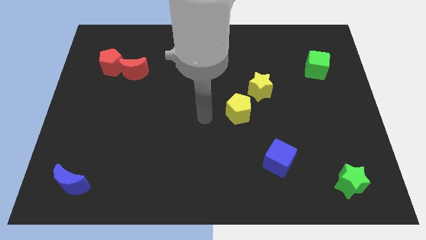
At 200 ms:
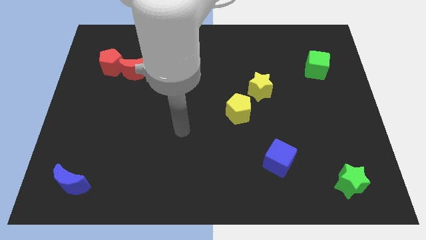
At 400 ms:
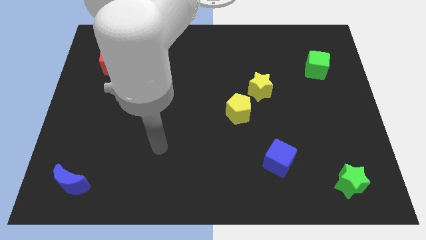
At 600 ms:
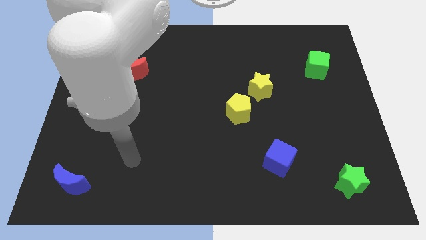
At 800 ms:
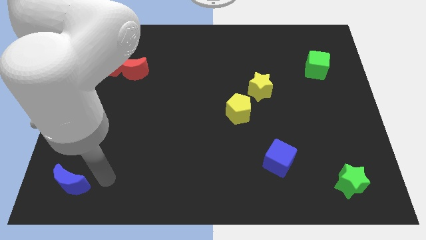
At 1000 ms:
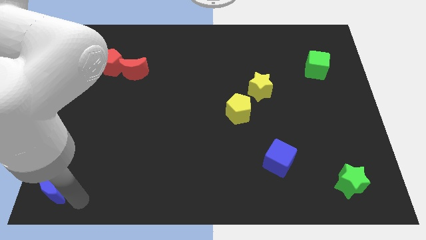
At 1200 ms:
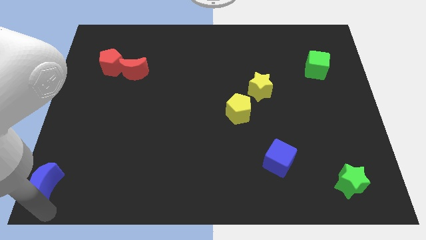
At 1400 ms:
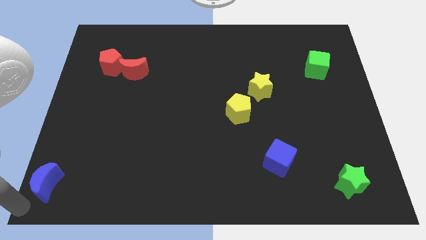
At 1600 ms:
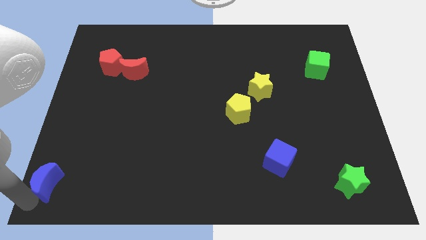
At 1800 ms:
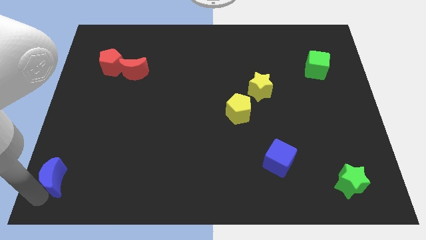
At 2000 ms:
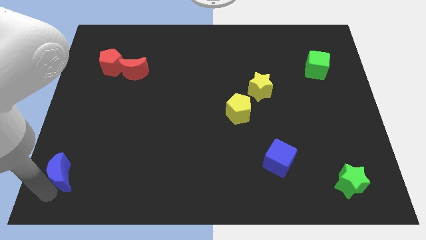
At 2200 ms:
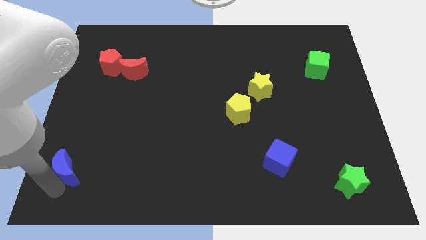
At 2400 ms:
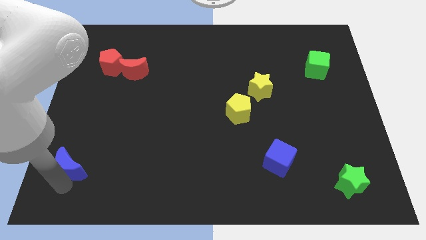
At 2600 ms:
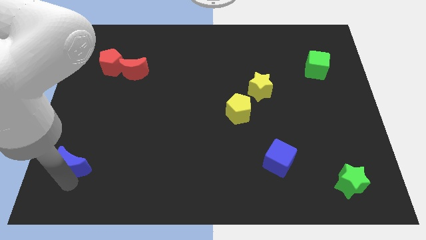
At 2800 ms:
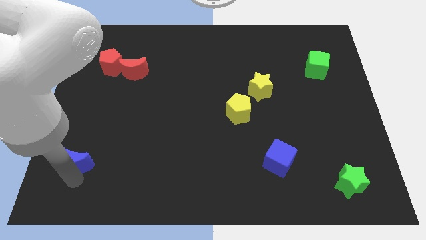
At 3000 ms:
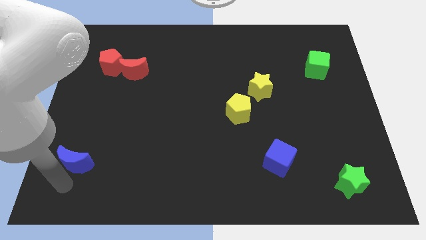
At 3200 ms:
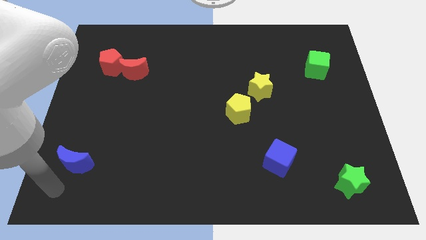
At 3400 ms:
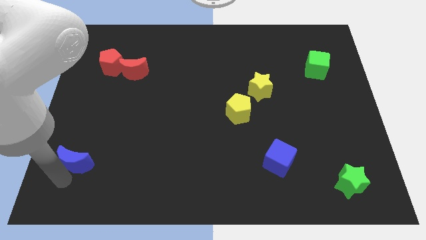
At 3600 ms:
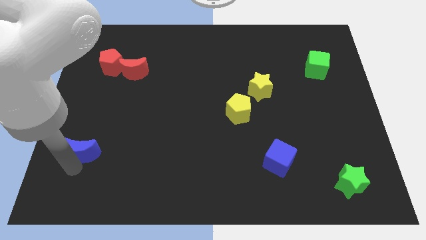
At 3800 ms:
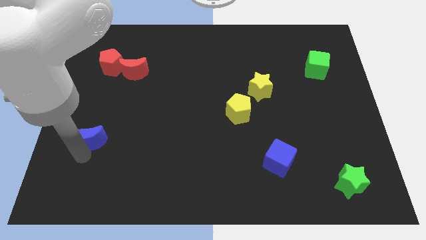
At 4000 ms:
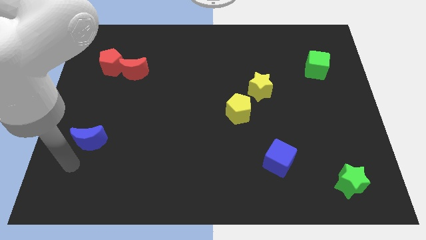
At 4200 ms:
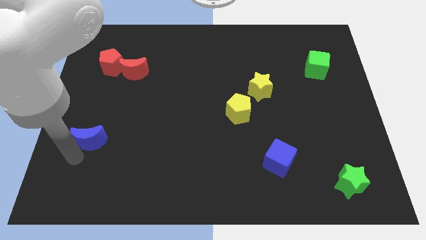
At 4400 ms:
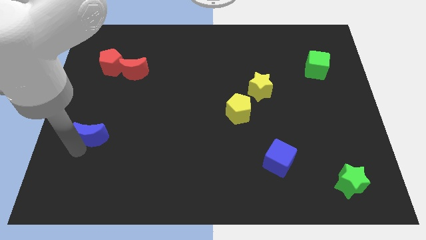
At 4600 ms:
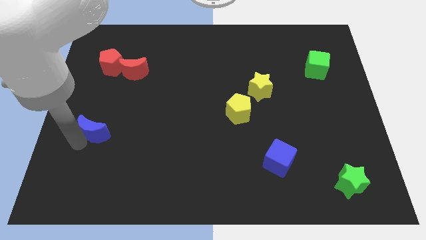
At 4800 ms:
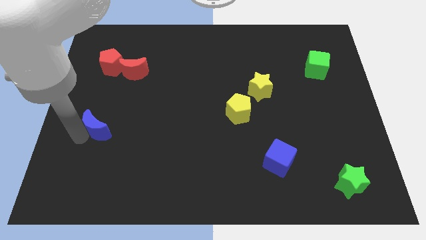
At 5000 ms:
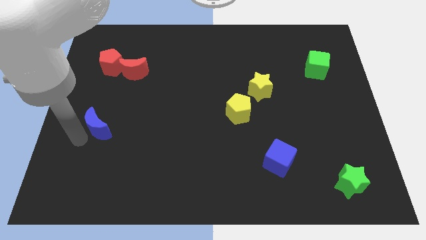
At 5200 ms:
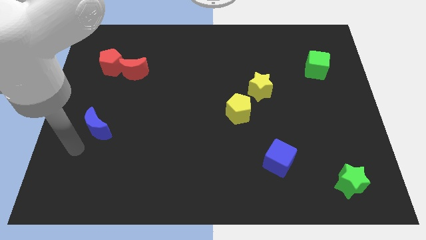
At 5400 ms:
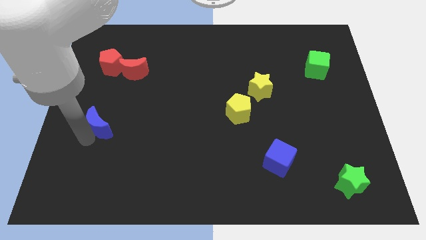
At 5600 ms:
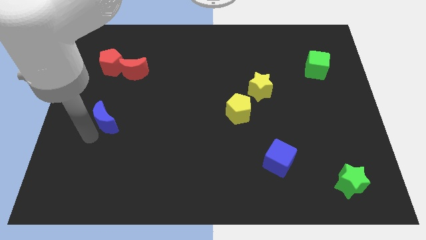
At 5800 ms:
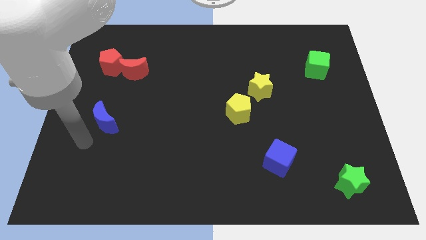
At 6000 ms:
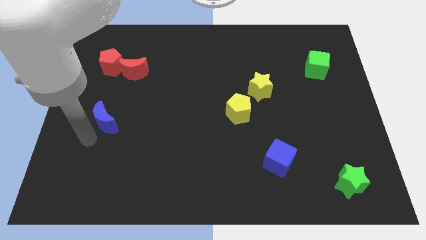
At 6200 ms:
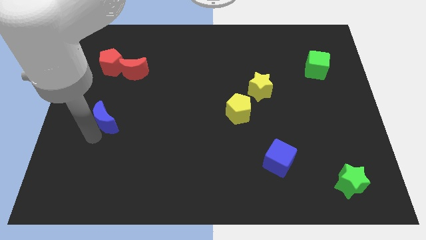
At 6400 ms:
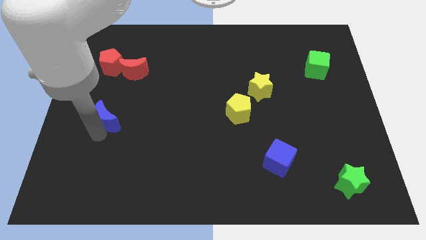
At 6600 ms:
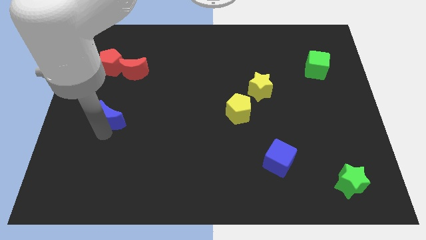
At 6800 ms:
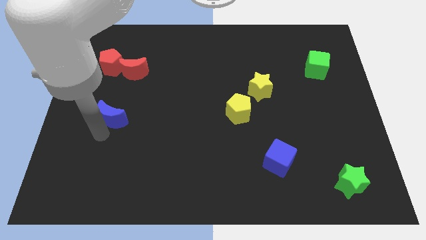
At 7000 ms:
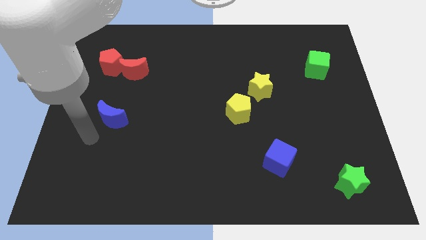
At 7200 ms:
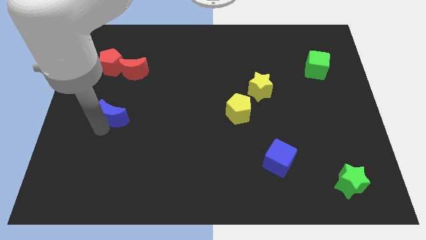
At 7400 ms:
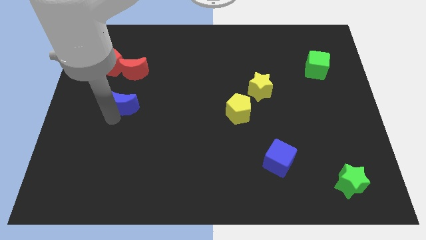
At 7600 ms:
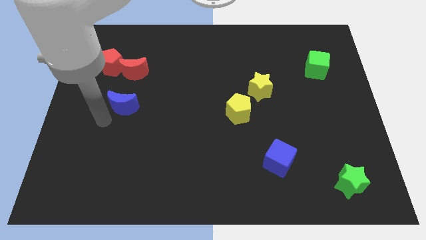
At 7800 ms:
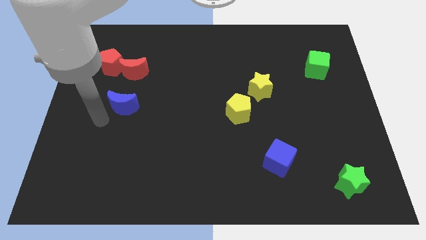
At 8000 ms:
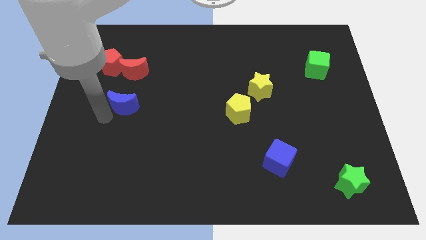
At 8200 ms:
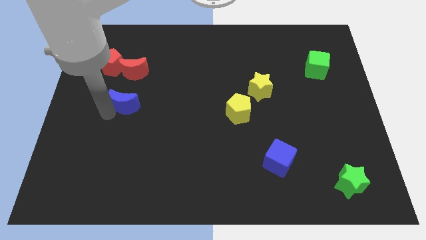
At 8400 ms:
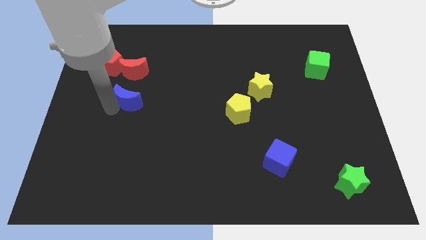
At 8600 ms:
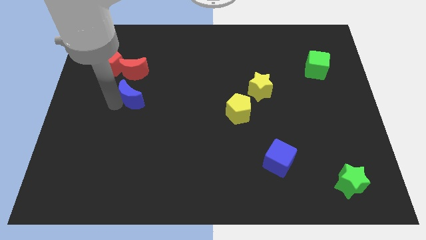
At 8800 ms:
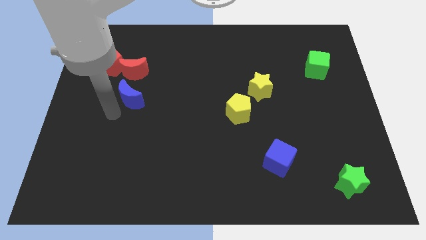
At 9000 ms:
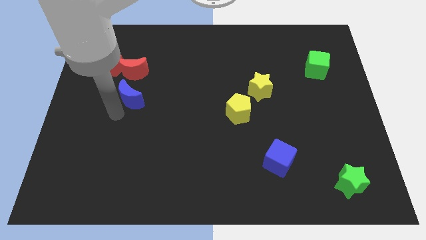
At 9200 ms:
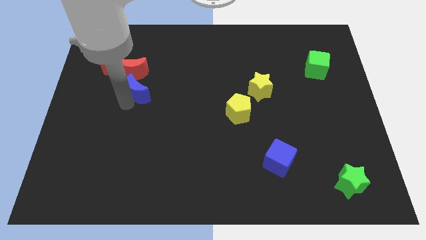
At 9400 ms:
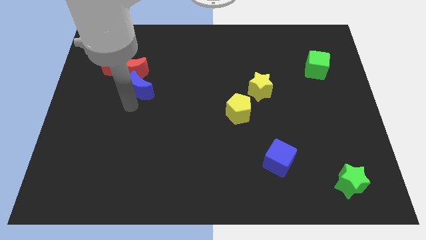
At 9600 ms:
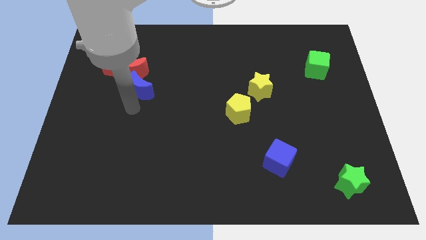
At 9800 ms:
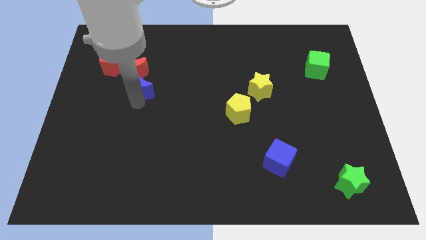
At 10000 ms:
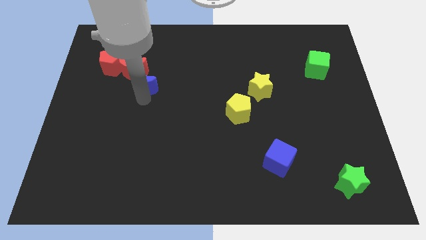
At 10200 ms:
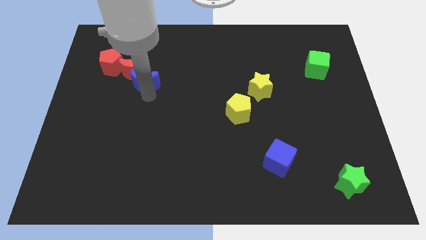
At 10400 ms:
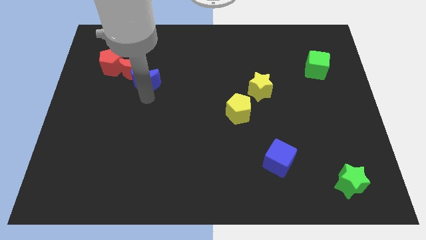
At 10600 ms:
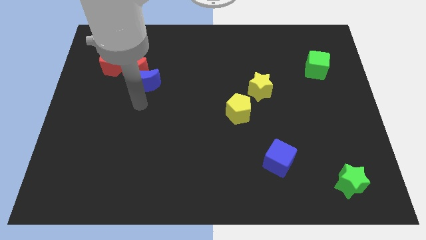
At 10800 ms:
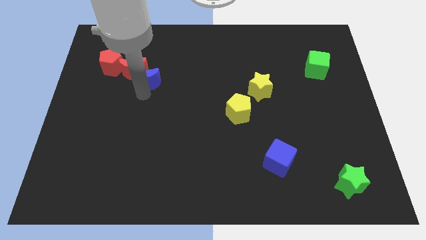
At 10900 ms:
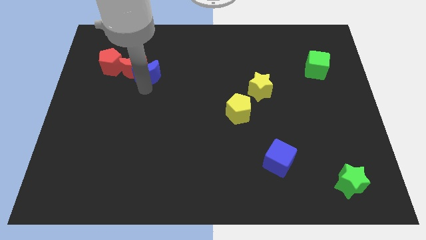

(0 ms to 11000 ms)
slide the blue moon right of the red pentagon

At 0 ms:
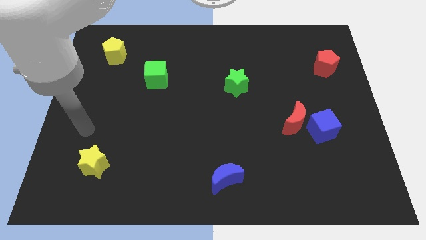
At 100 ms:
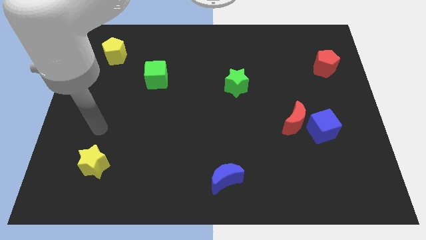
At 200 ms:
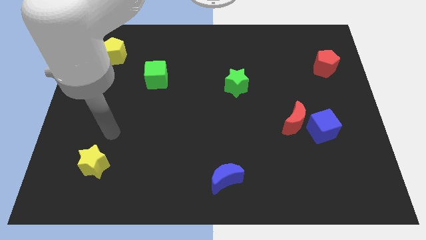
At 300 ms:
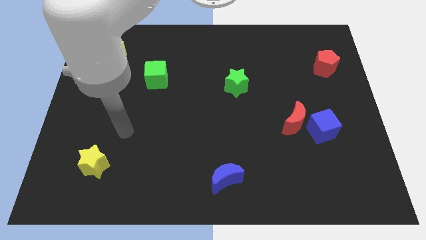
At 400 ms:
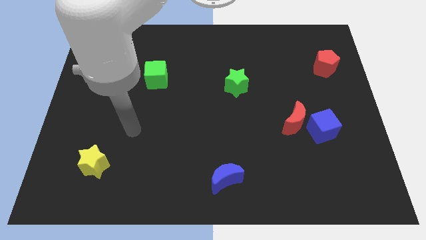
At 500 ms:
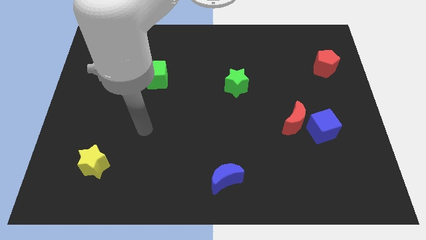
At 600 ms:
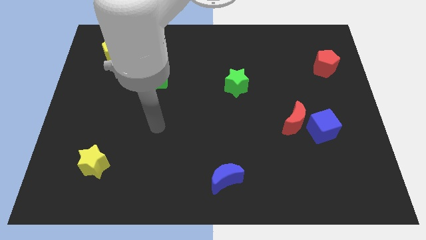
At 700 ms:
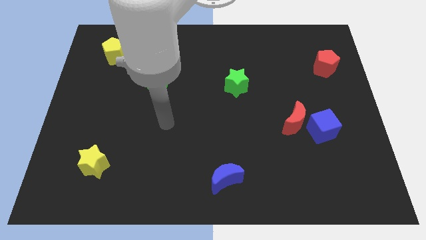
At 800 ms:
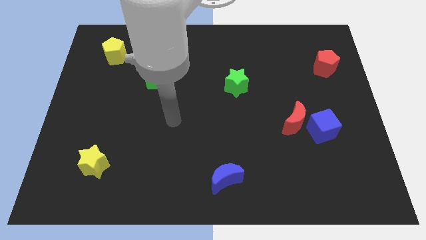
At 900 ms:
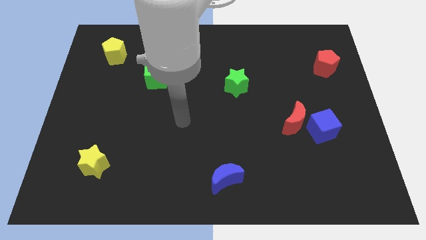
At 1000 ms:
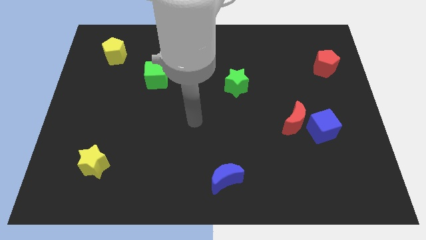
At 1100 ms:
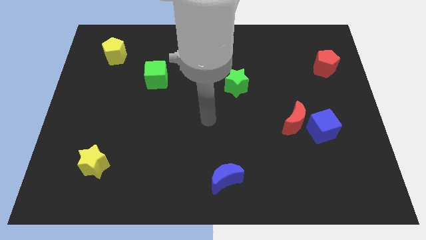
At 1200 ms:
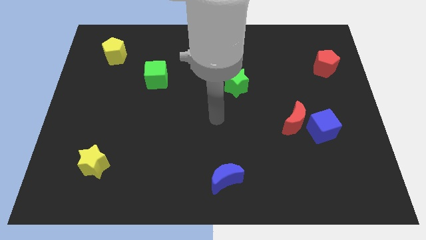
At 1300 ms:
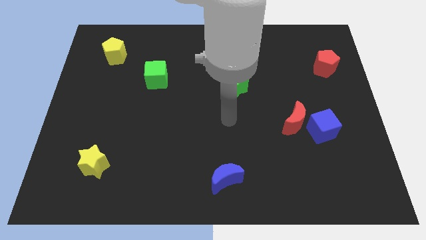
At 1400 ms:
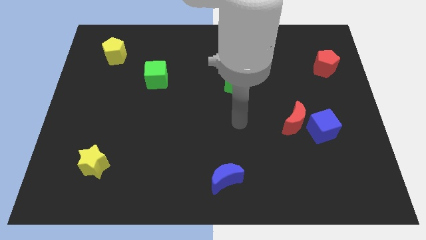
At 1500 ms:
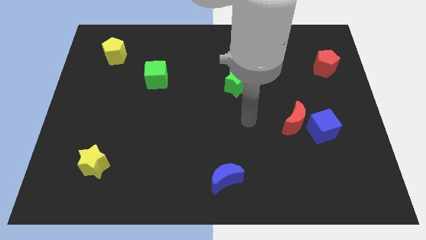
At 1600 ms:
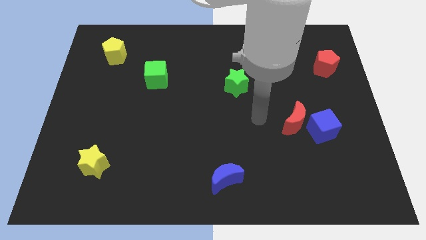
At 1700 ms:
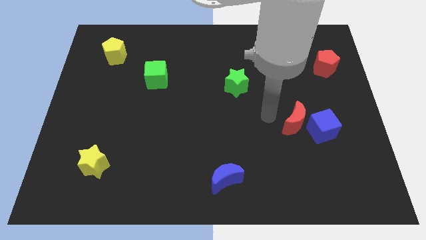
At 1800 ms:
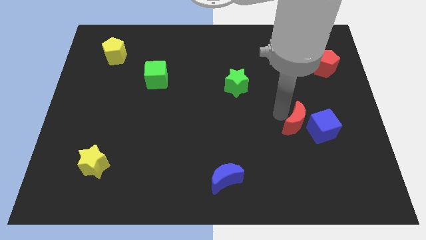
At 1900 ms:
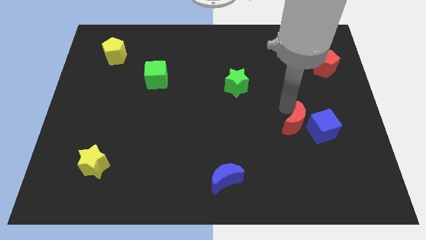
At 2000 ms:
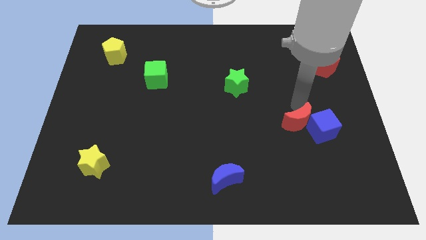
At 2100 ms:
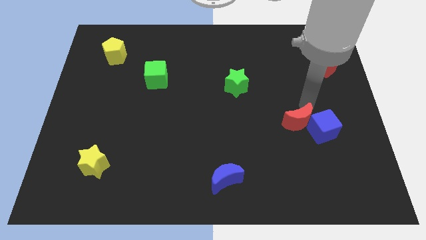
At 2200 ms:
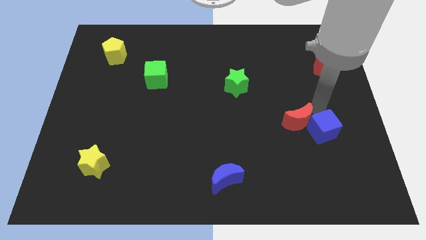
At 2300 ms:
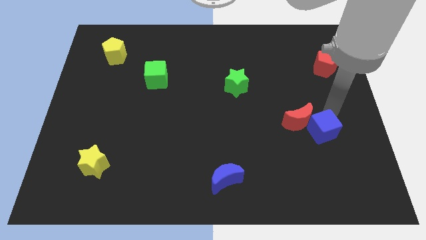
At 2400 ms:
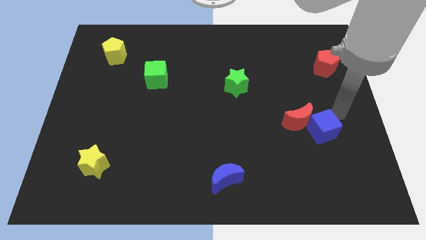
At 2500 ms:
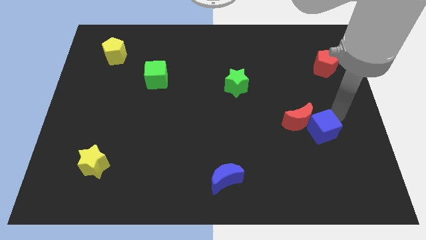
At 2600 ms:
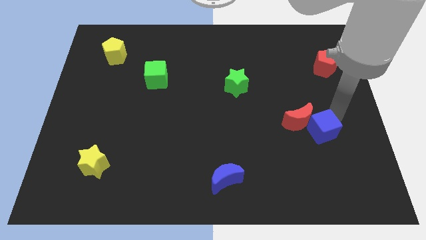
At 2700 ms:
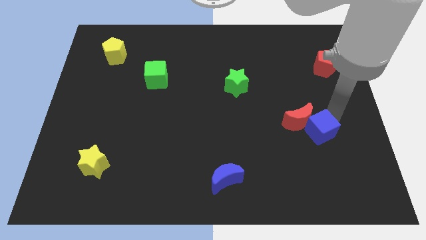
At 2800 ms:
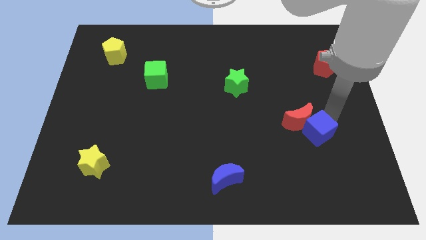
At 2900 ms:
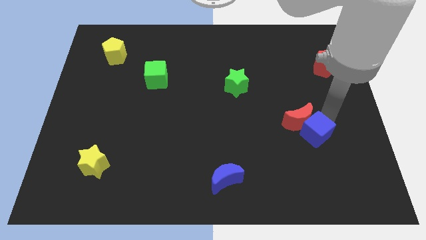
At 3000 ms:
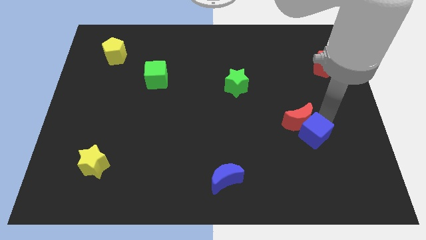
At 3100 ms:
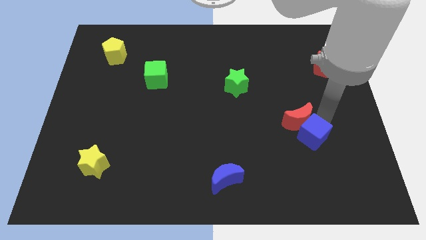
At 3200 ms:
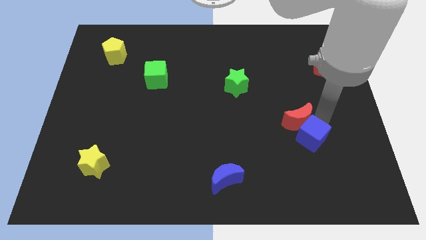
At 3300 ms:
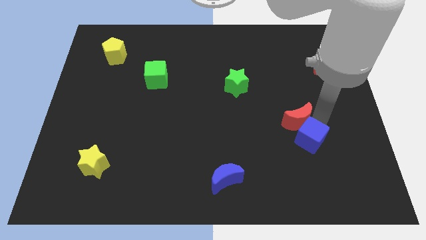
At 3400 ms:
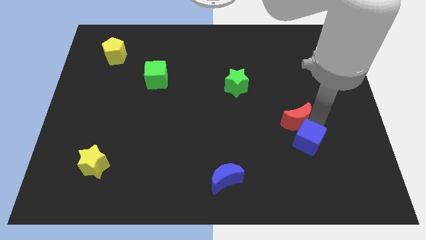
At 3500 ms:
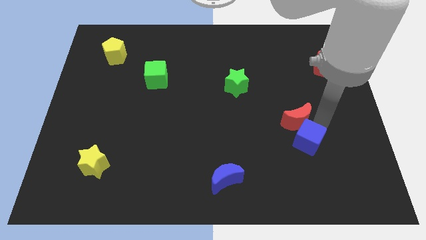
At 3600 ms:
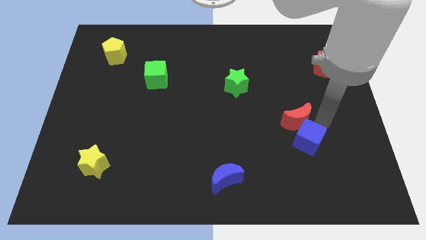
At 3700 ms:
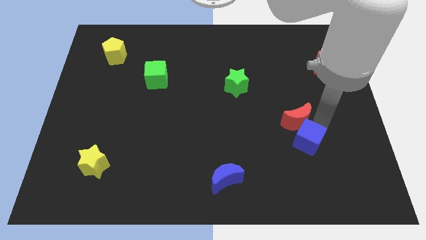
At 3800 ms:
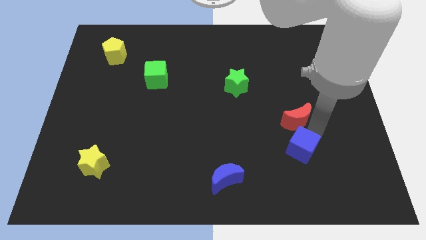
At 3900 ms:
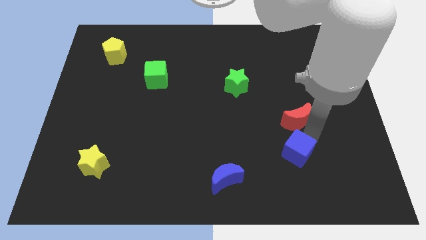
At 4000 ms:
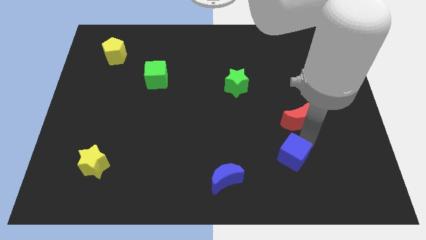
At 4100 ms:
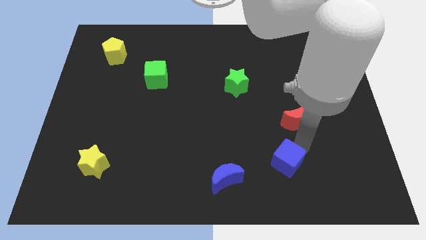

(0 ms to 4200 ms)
push the blue cube to the right side of the blue moon
